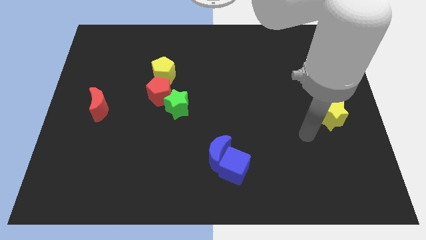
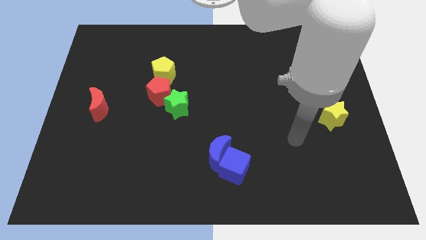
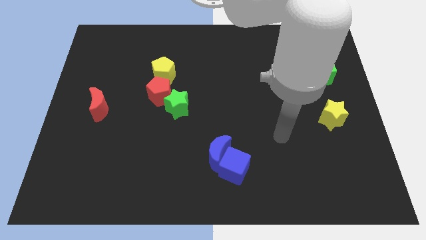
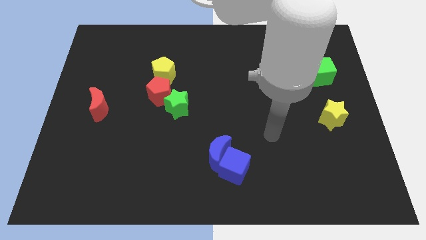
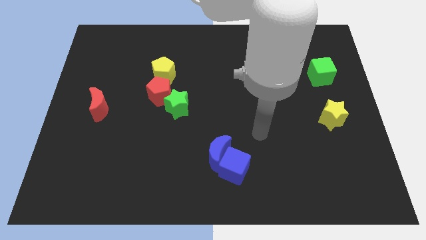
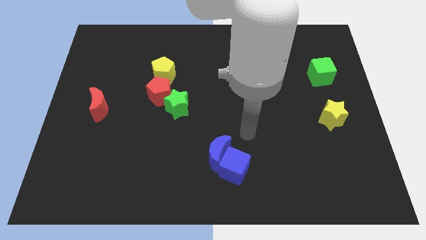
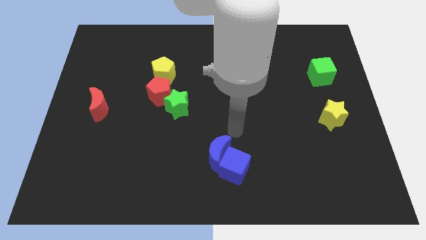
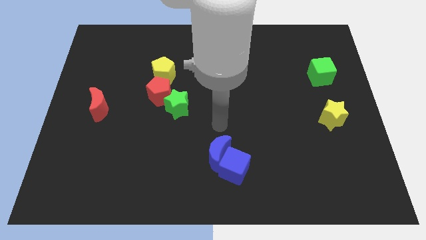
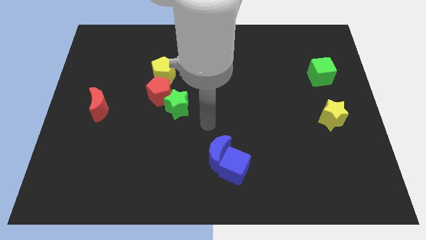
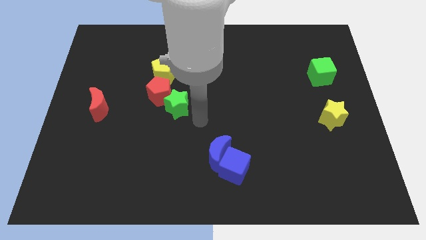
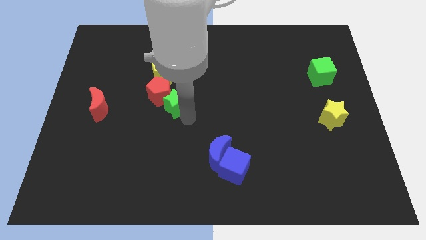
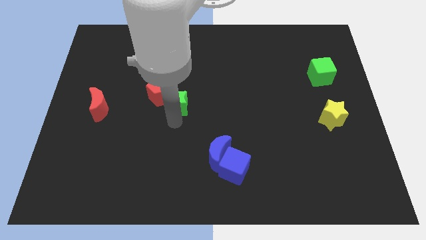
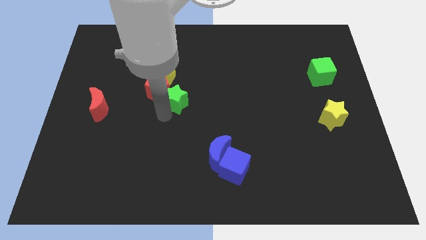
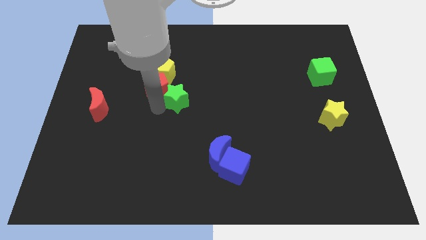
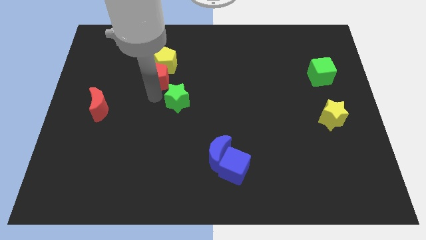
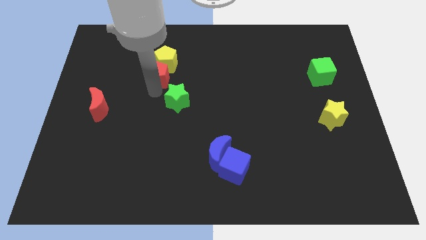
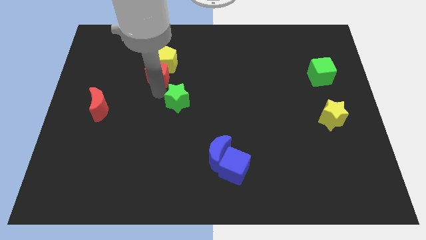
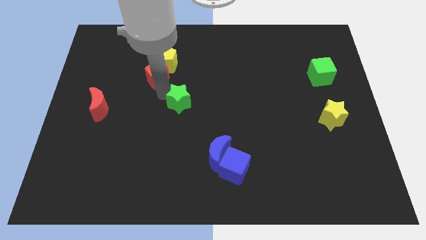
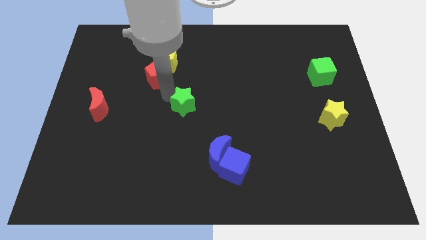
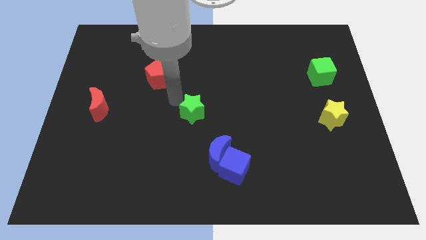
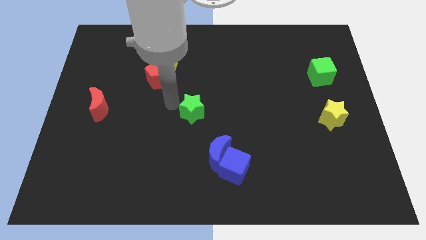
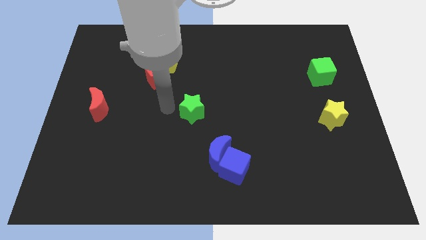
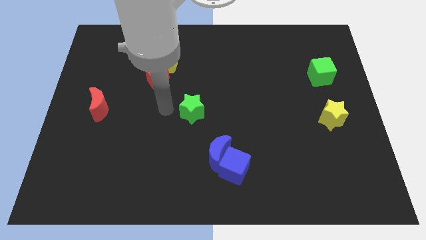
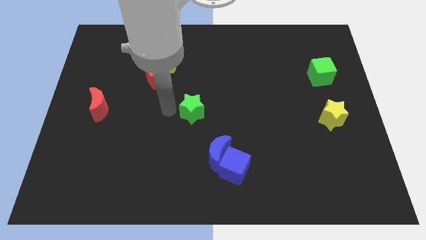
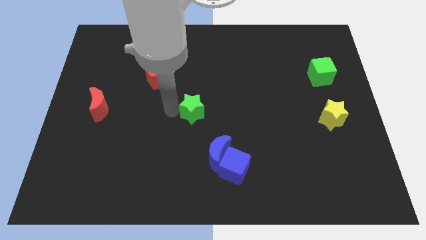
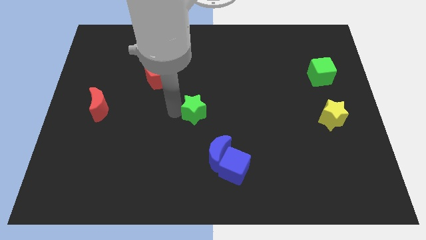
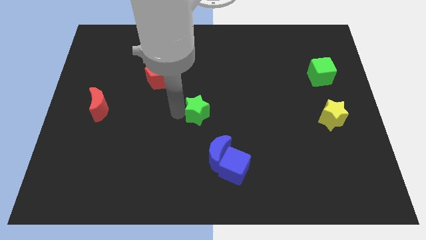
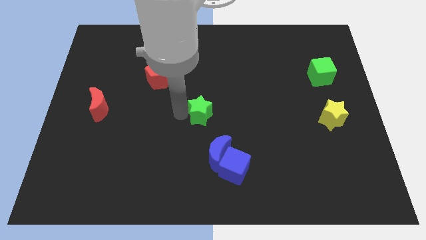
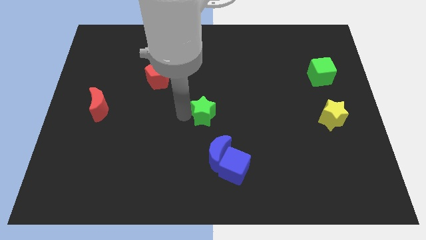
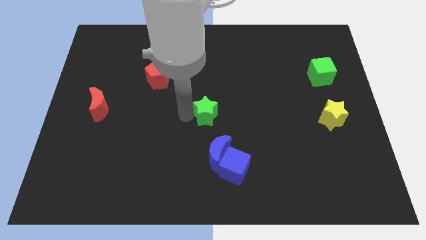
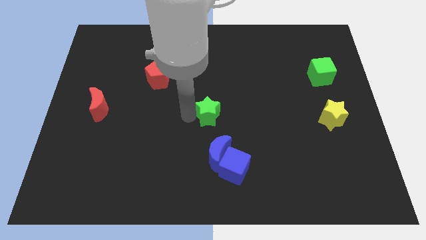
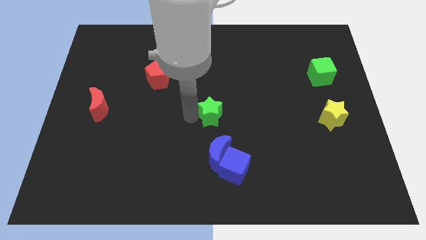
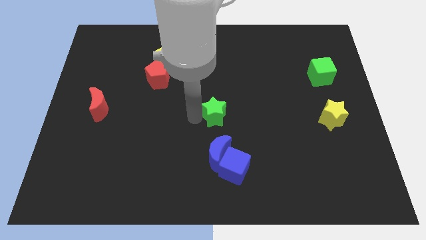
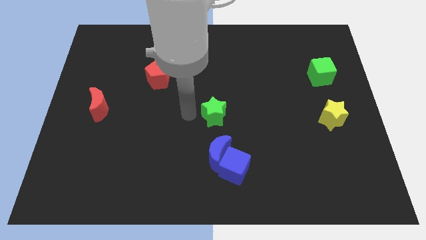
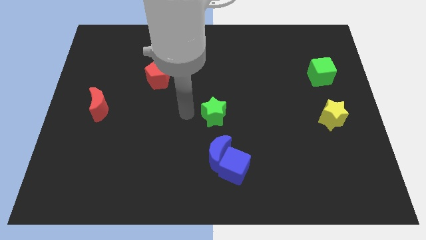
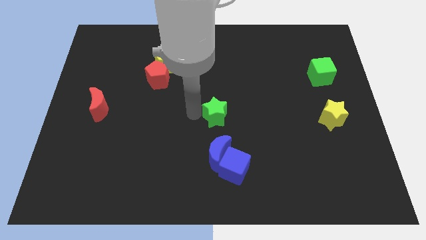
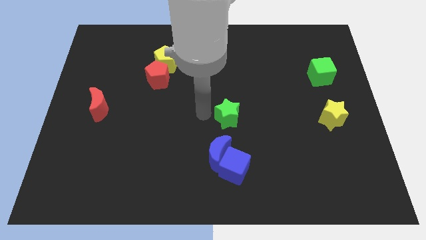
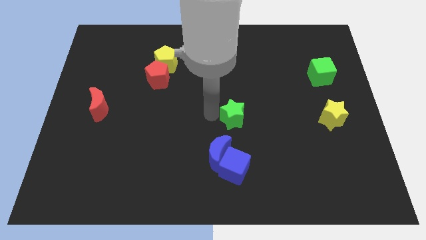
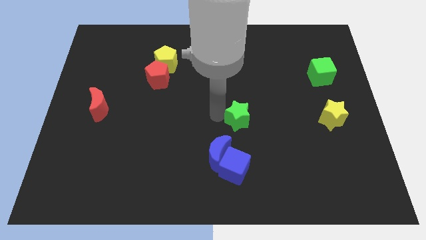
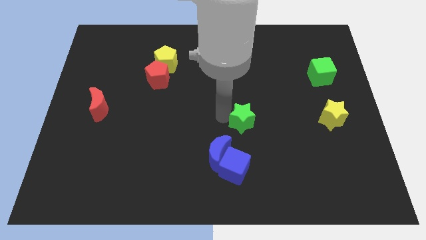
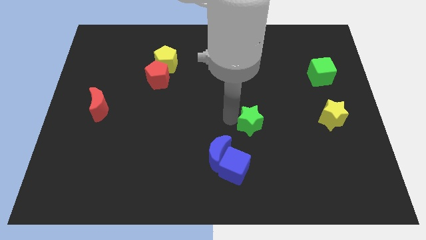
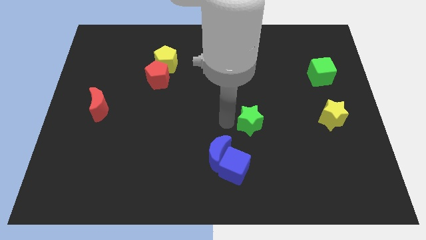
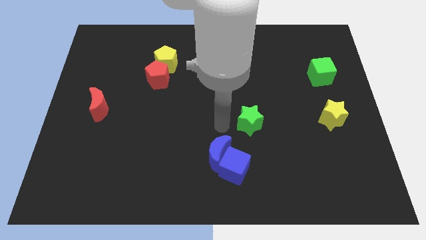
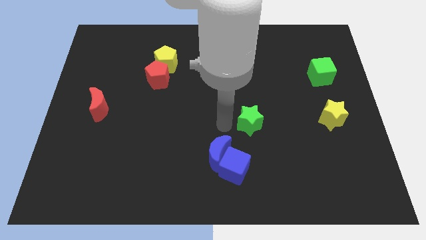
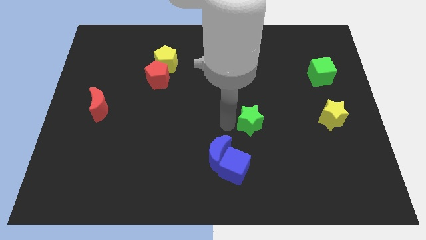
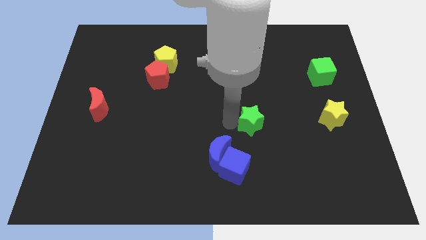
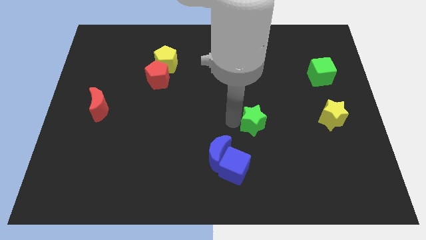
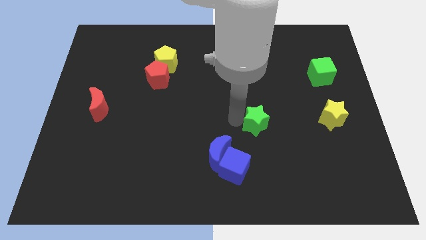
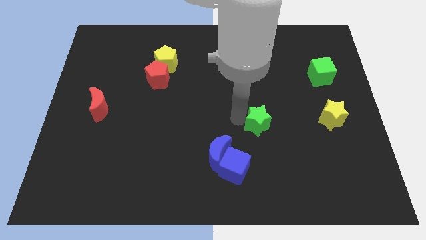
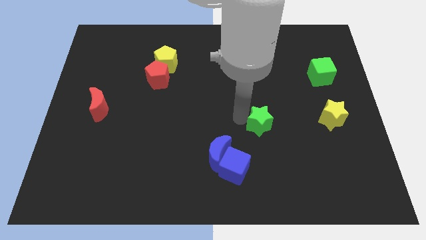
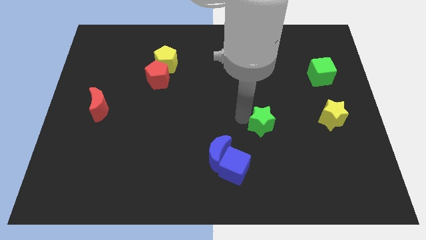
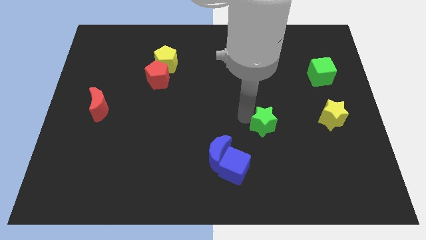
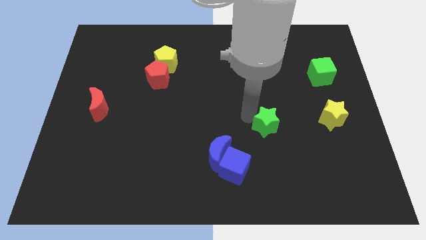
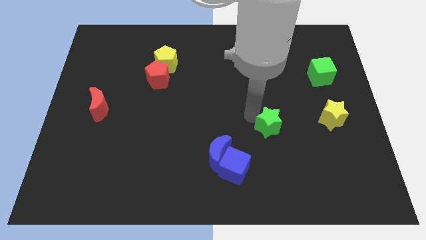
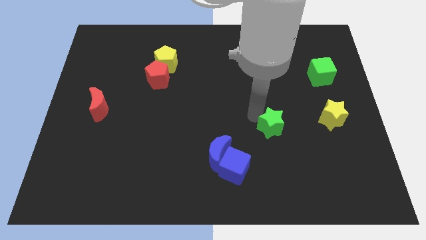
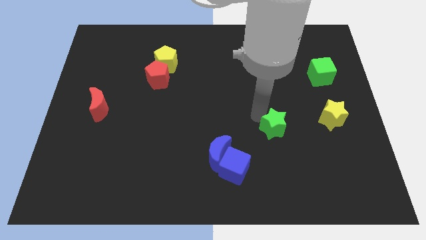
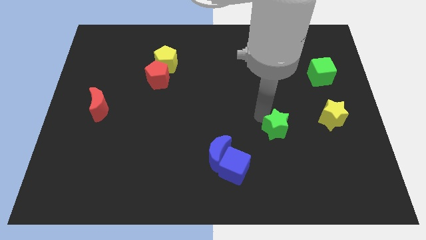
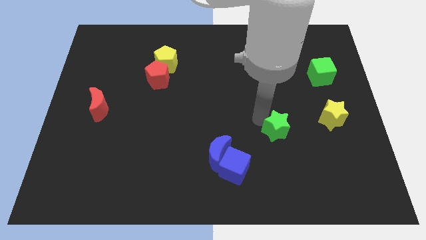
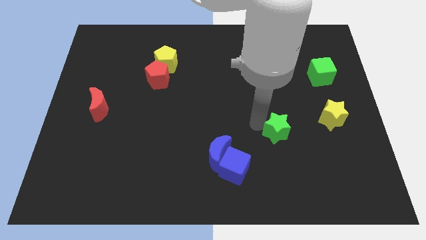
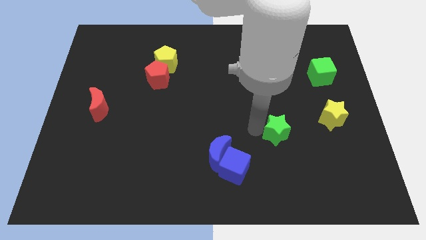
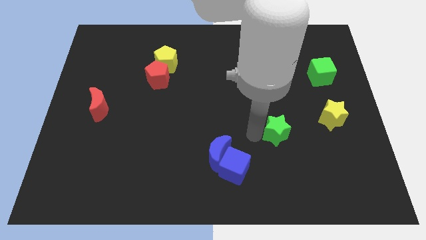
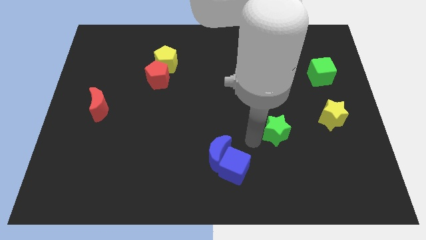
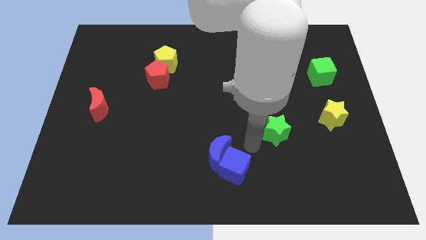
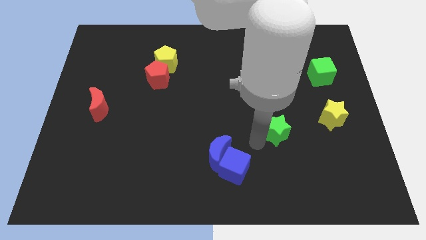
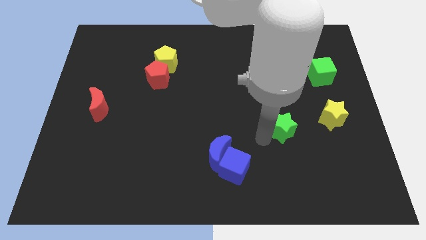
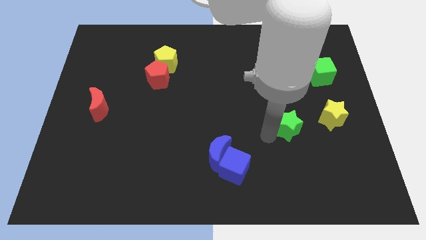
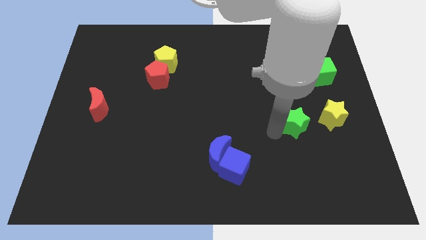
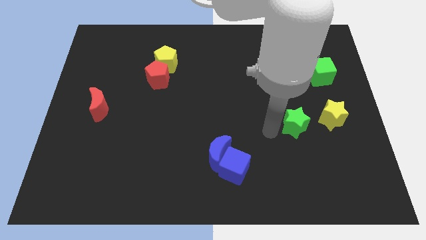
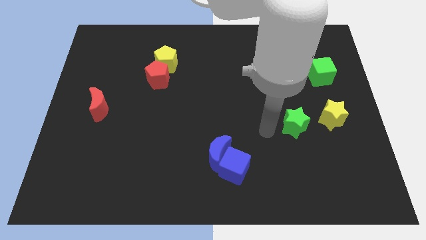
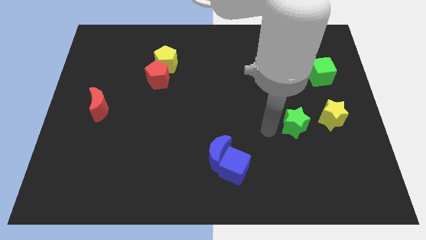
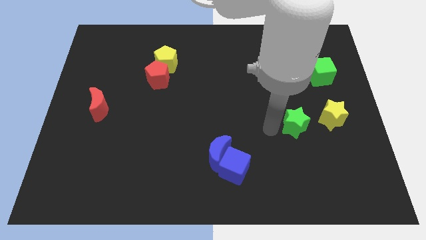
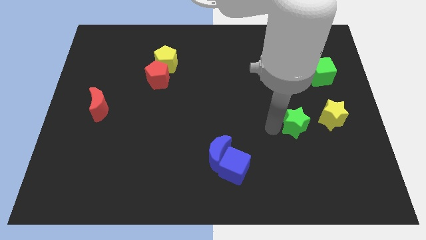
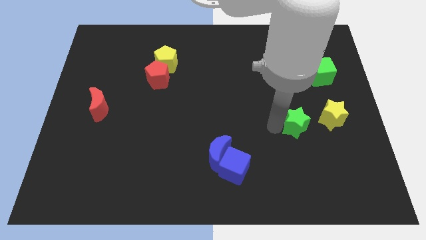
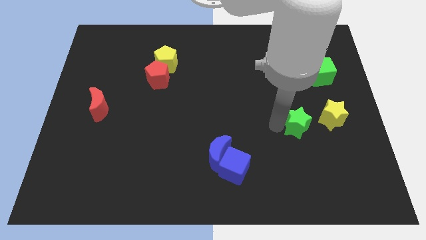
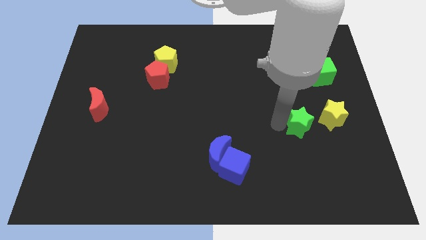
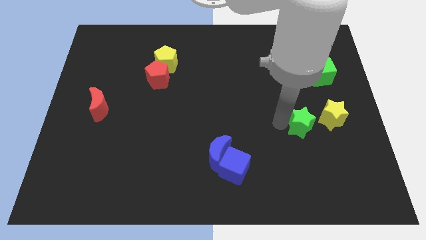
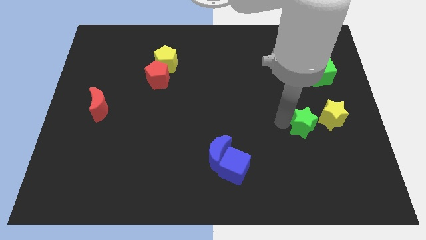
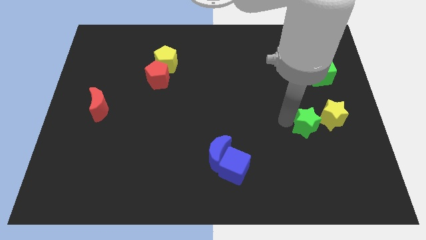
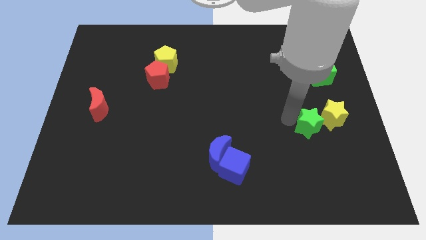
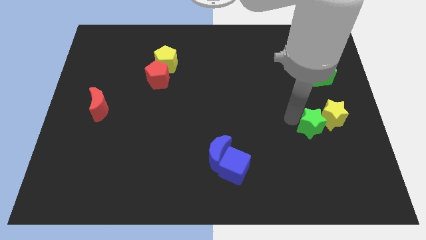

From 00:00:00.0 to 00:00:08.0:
move the green star to the yellow star
